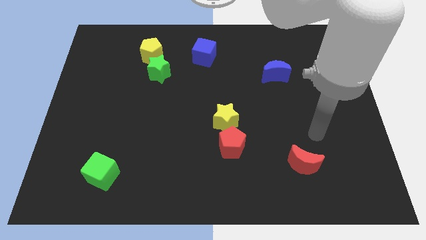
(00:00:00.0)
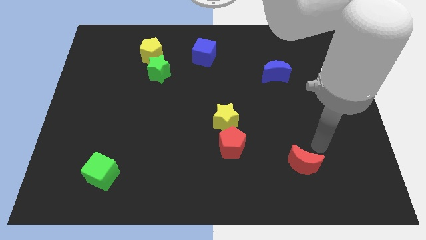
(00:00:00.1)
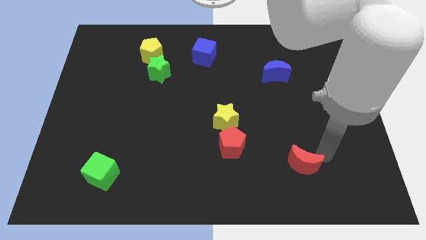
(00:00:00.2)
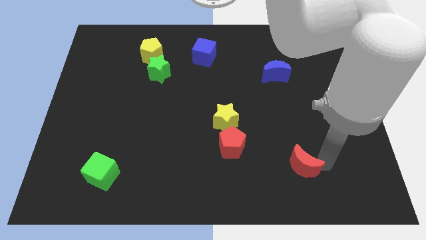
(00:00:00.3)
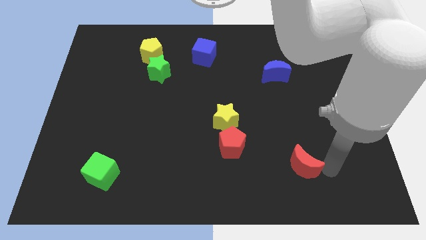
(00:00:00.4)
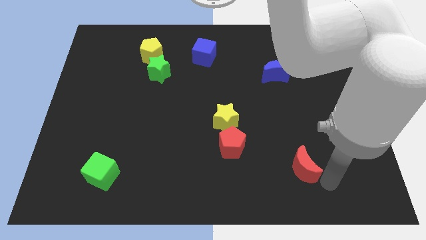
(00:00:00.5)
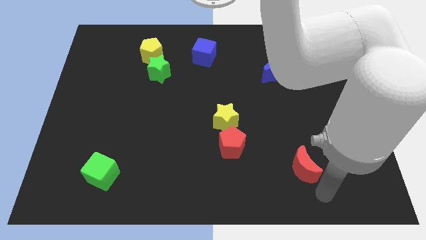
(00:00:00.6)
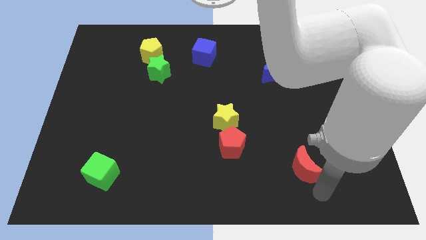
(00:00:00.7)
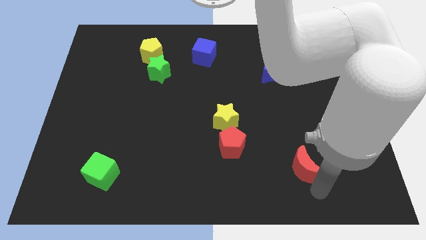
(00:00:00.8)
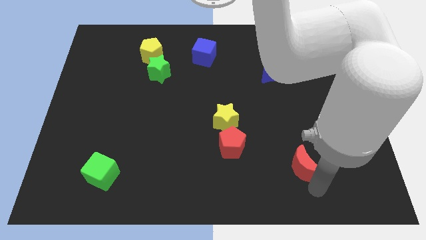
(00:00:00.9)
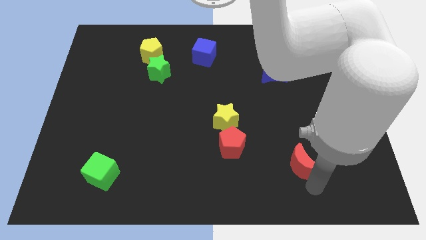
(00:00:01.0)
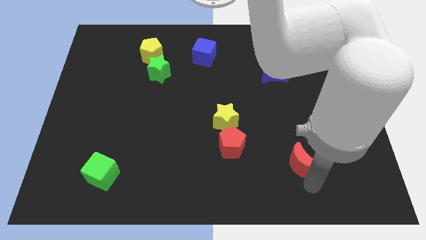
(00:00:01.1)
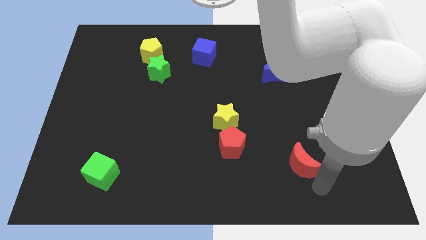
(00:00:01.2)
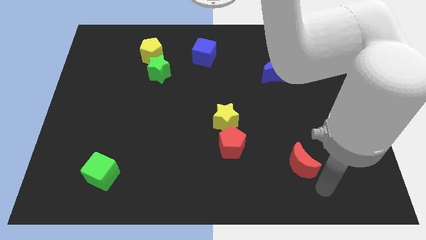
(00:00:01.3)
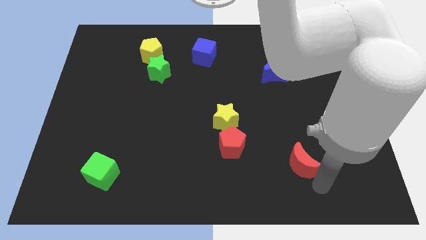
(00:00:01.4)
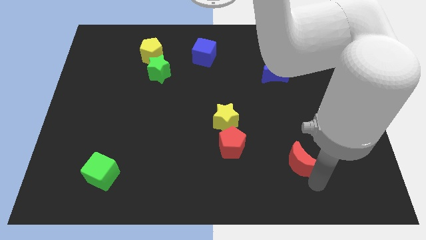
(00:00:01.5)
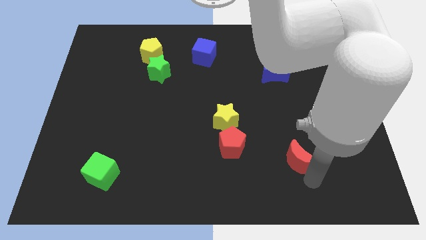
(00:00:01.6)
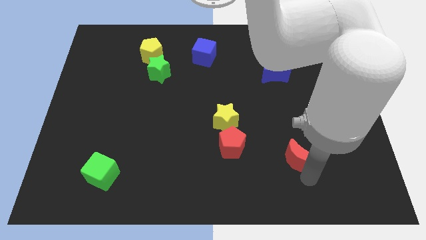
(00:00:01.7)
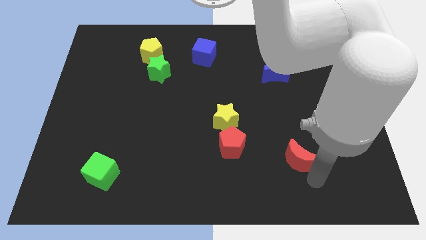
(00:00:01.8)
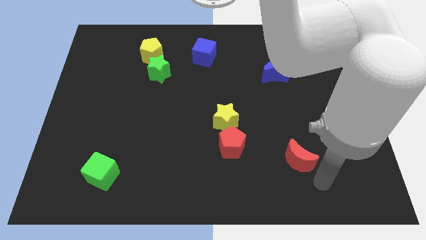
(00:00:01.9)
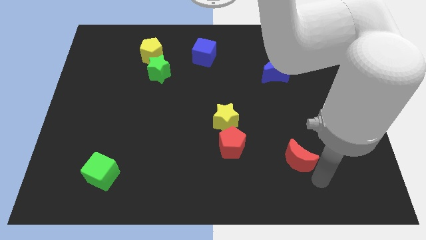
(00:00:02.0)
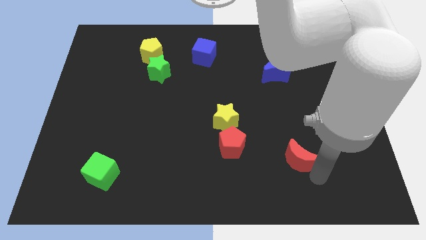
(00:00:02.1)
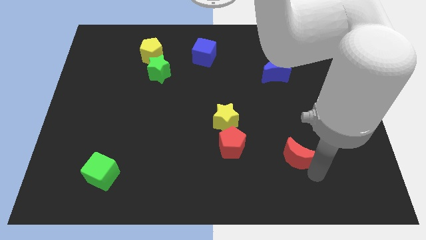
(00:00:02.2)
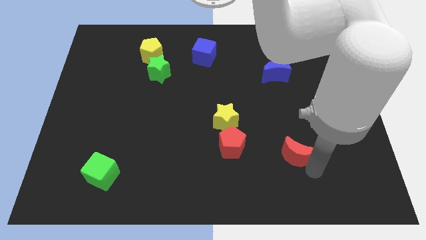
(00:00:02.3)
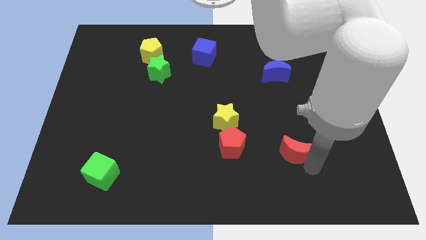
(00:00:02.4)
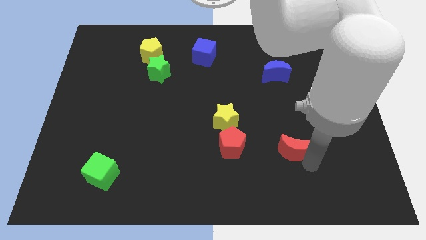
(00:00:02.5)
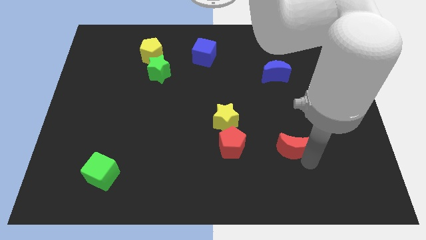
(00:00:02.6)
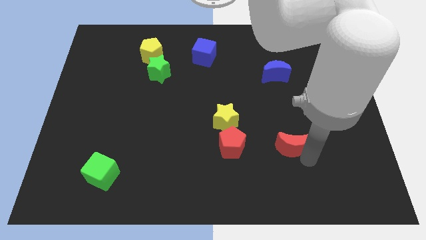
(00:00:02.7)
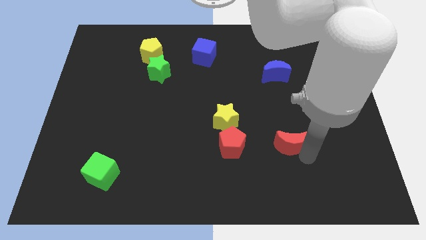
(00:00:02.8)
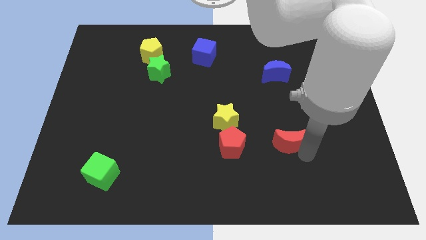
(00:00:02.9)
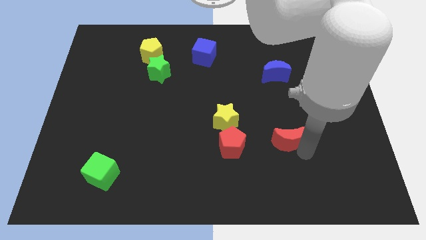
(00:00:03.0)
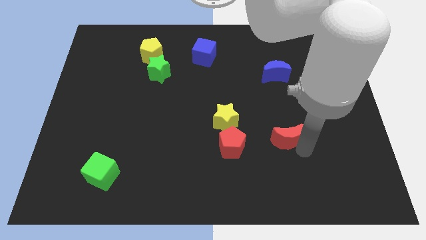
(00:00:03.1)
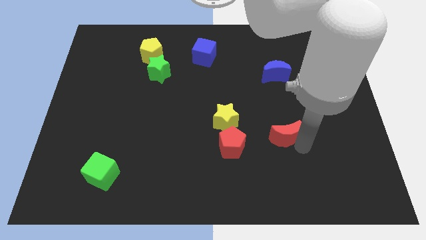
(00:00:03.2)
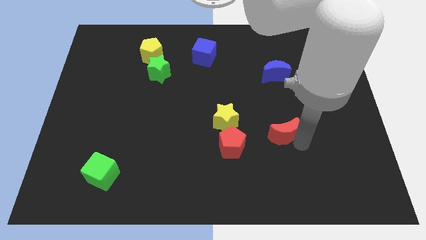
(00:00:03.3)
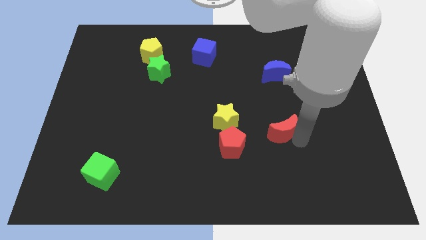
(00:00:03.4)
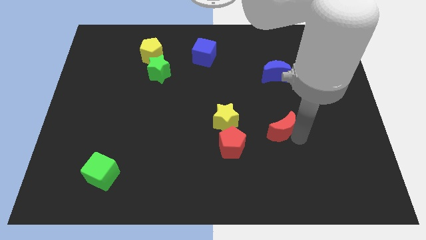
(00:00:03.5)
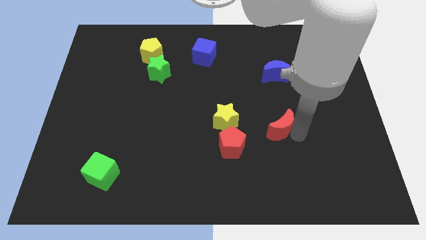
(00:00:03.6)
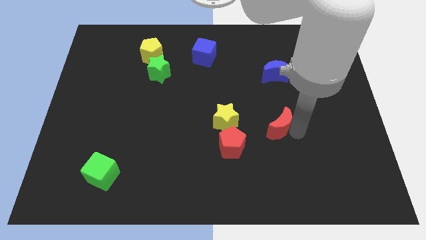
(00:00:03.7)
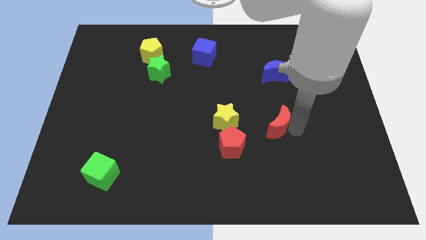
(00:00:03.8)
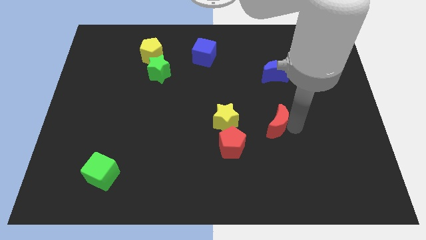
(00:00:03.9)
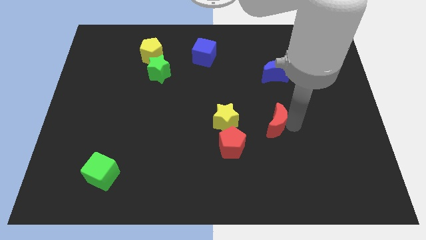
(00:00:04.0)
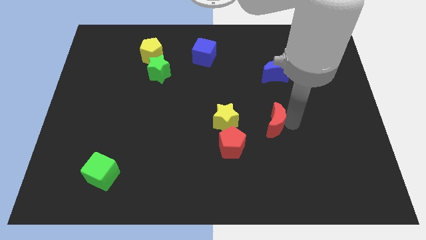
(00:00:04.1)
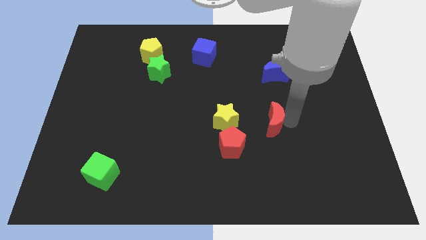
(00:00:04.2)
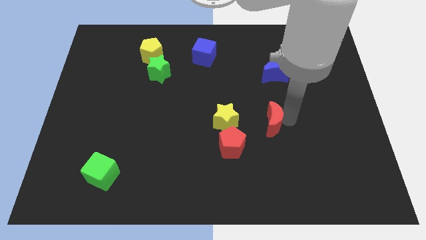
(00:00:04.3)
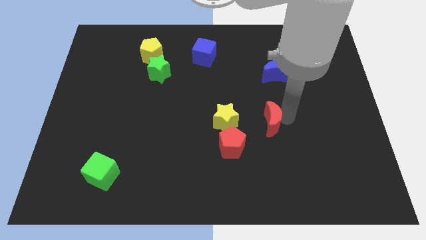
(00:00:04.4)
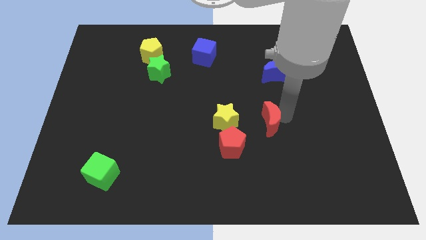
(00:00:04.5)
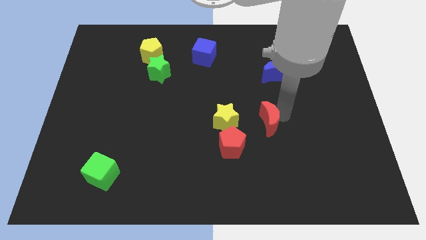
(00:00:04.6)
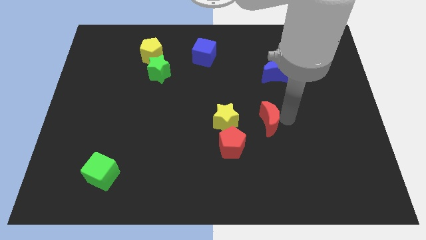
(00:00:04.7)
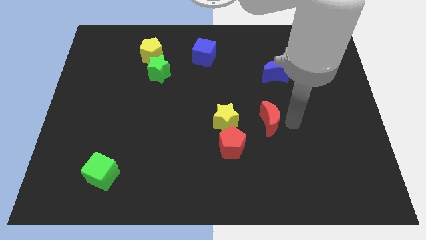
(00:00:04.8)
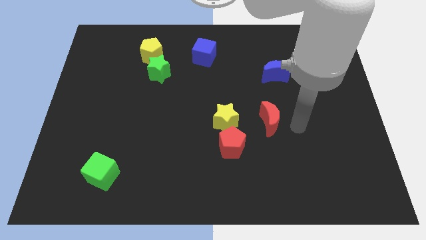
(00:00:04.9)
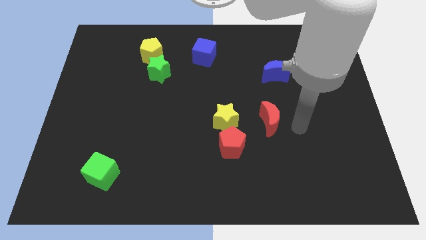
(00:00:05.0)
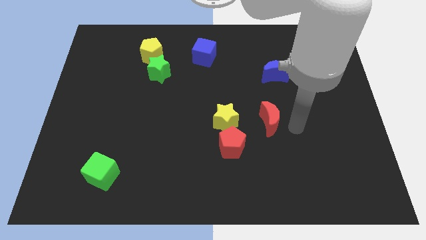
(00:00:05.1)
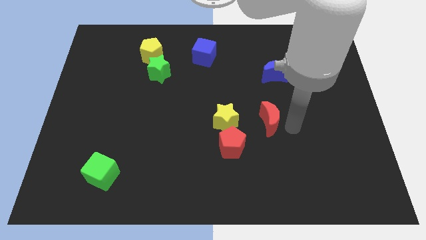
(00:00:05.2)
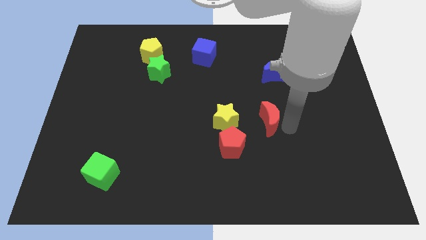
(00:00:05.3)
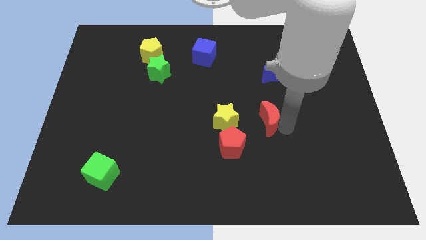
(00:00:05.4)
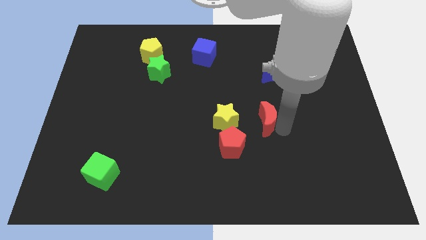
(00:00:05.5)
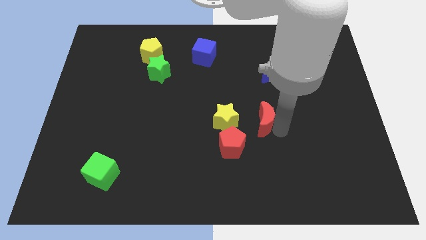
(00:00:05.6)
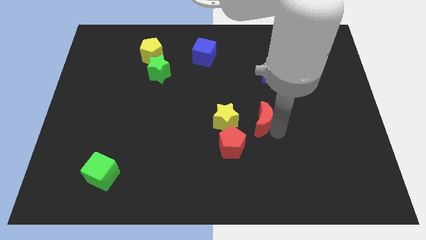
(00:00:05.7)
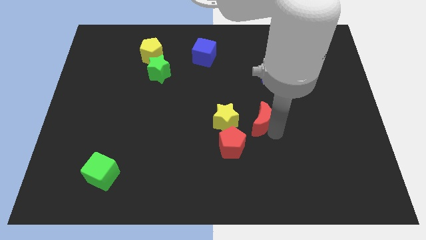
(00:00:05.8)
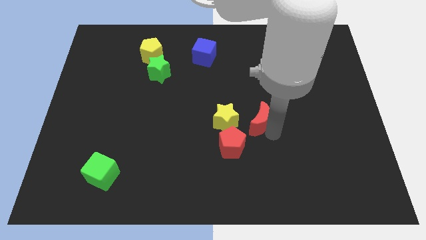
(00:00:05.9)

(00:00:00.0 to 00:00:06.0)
move the red moon to the middle
